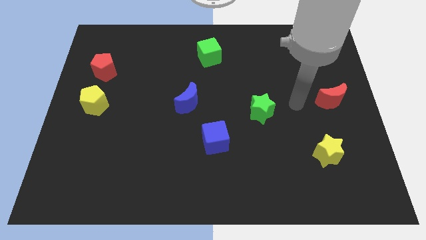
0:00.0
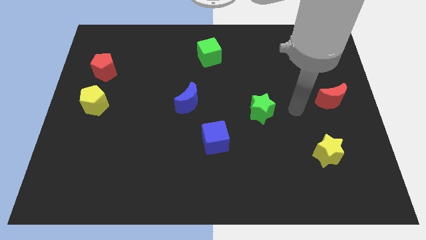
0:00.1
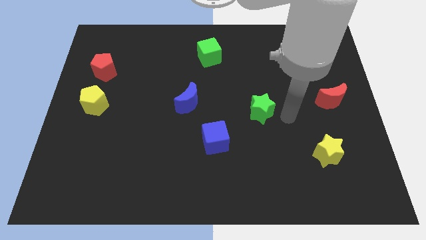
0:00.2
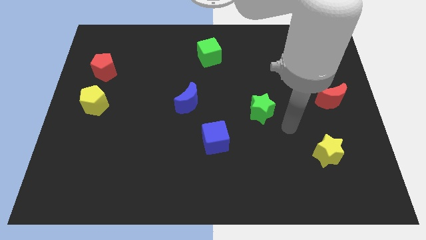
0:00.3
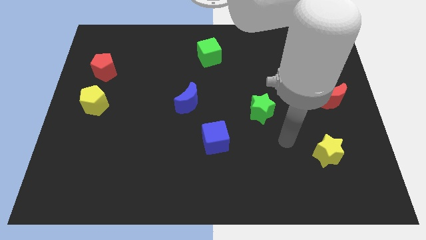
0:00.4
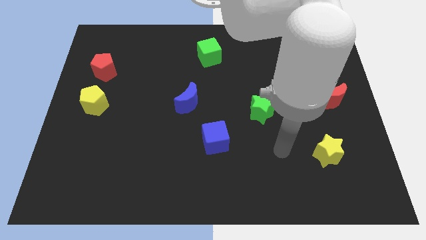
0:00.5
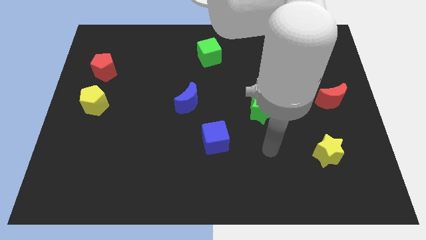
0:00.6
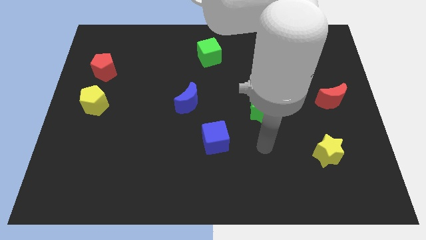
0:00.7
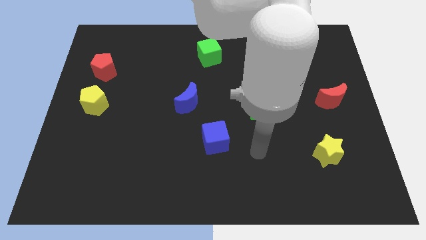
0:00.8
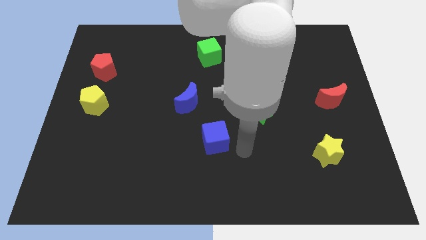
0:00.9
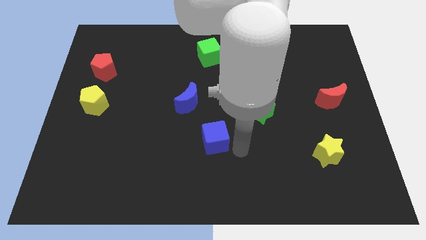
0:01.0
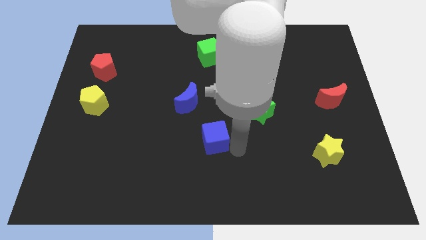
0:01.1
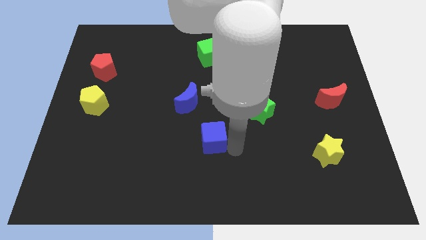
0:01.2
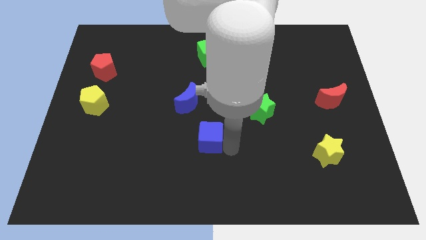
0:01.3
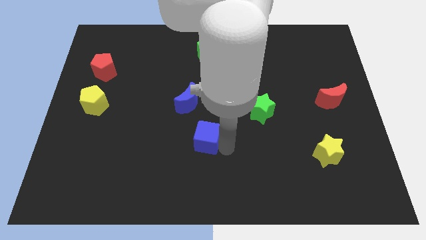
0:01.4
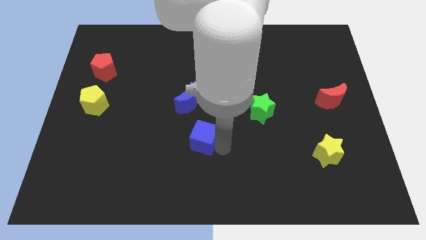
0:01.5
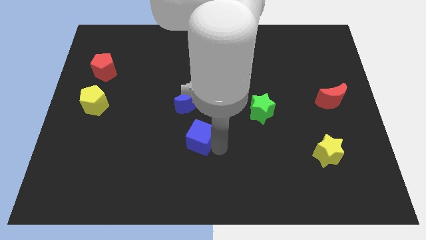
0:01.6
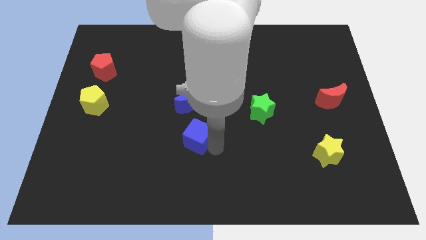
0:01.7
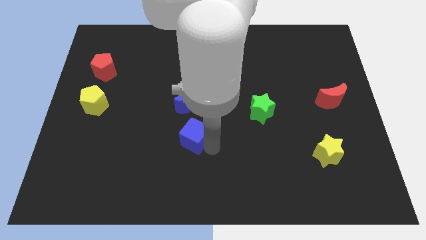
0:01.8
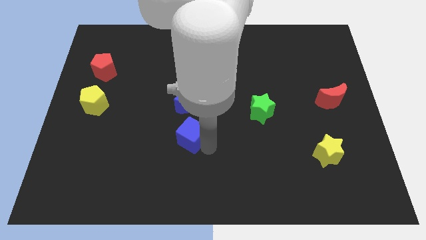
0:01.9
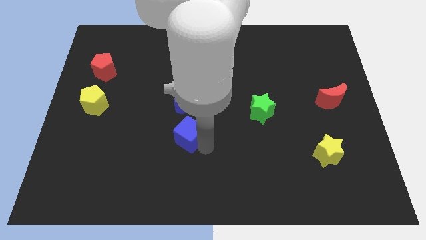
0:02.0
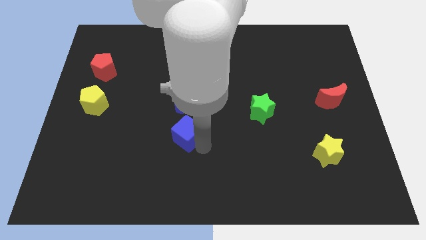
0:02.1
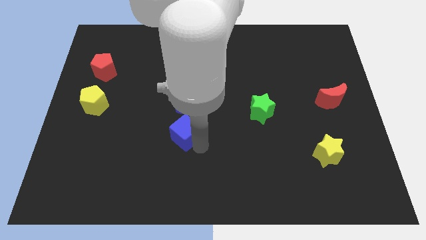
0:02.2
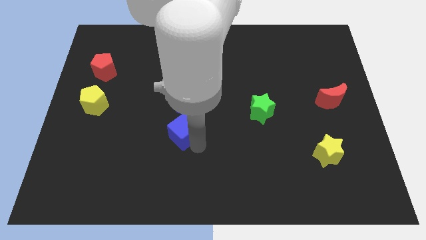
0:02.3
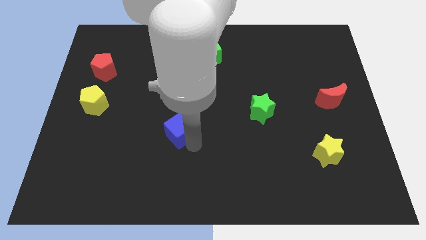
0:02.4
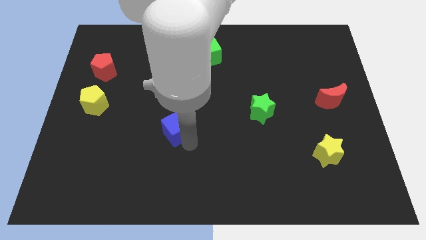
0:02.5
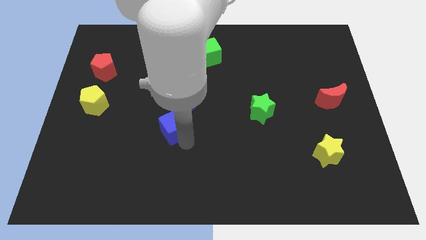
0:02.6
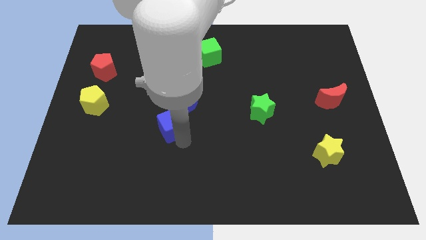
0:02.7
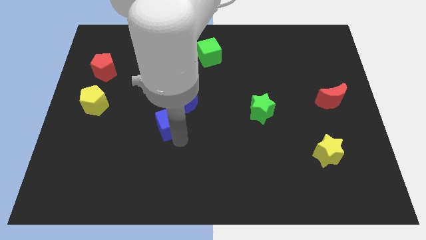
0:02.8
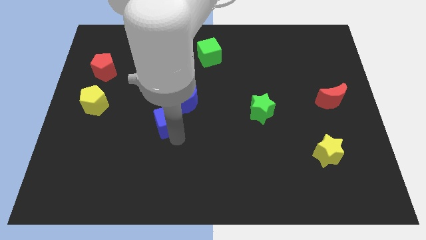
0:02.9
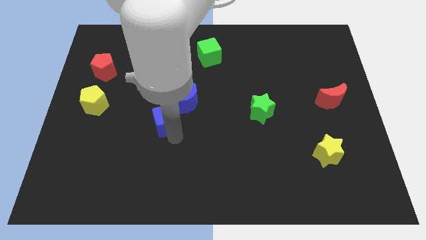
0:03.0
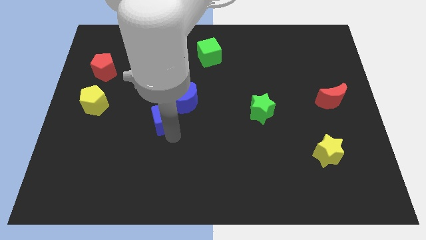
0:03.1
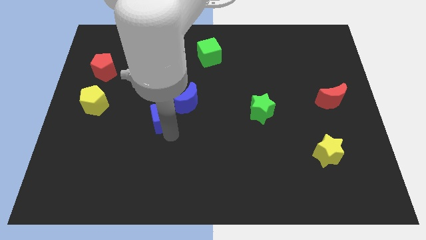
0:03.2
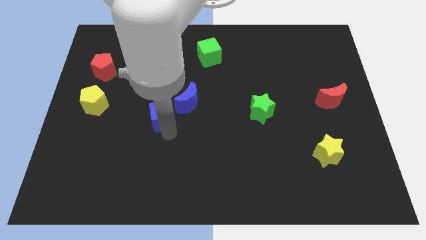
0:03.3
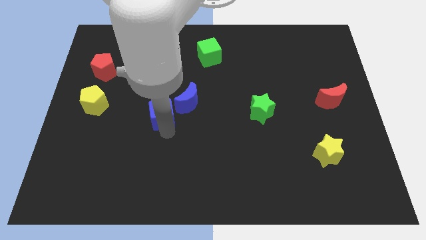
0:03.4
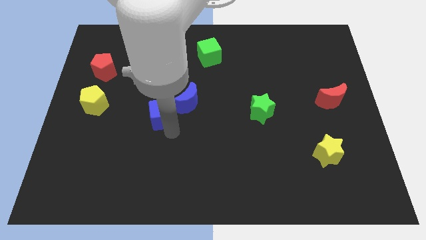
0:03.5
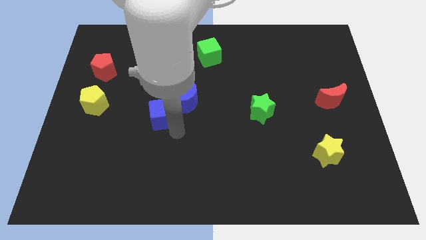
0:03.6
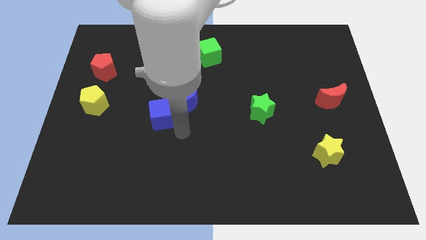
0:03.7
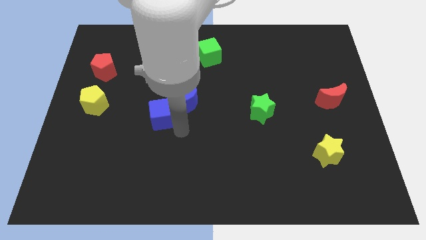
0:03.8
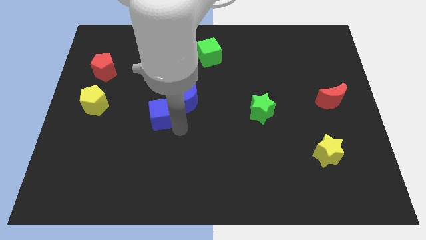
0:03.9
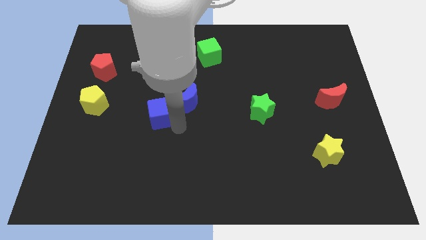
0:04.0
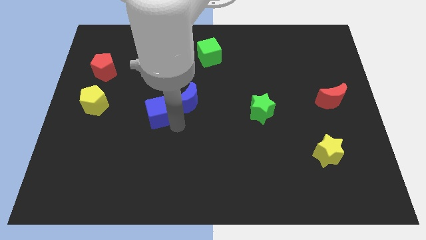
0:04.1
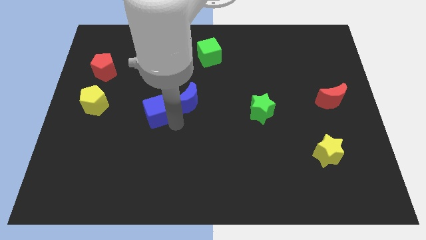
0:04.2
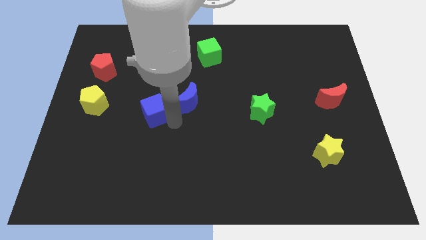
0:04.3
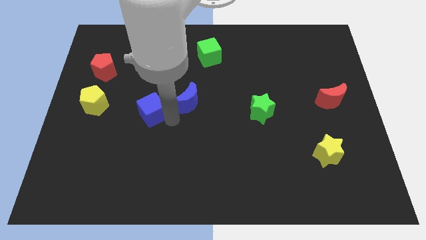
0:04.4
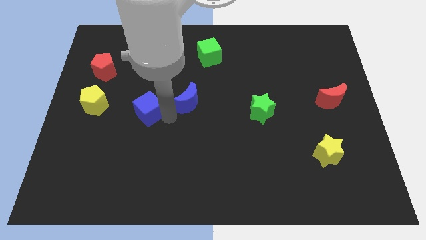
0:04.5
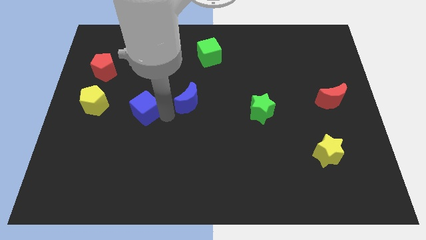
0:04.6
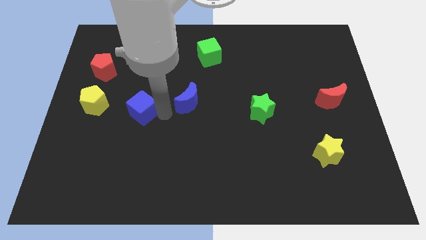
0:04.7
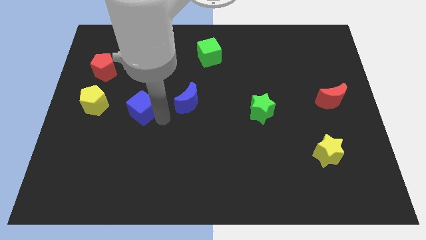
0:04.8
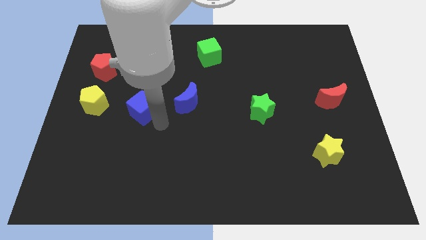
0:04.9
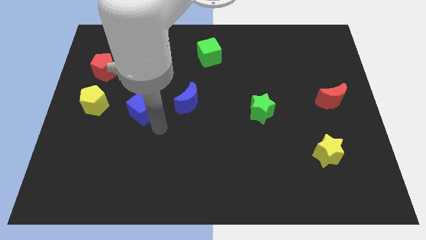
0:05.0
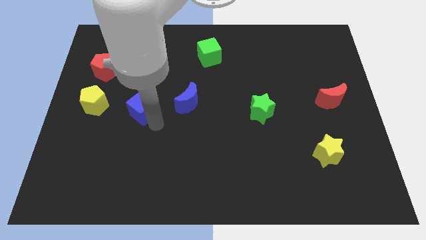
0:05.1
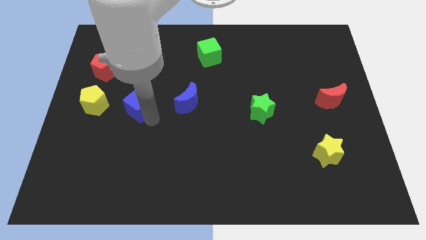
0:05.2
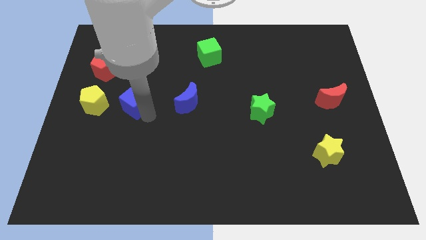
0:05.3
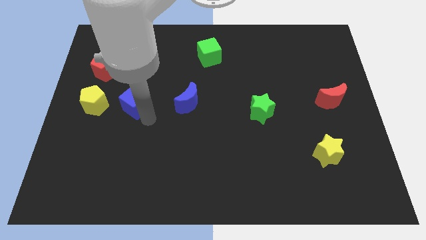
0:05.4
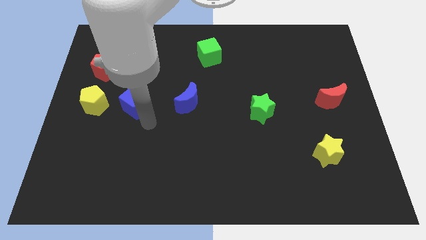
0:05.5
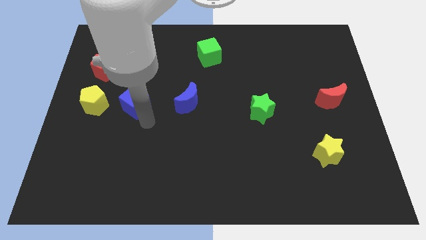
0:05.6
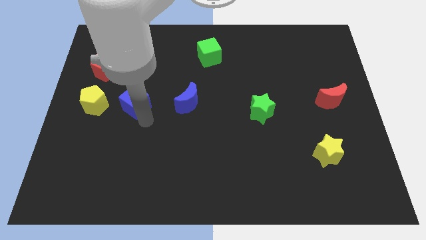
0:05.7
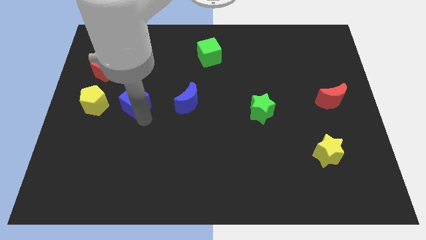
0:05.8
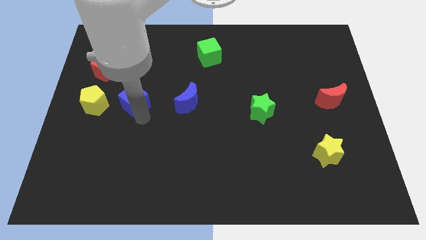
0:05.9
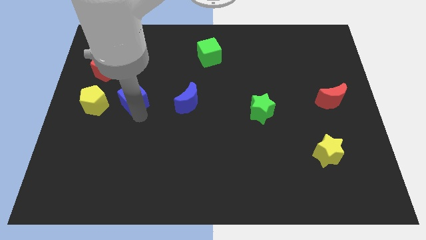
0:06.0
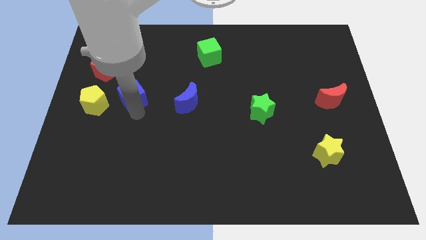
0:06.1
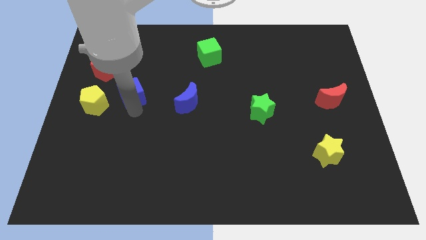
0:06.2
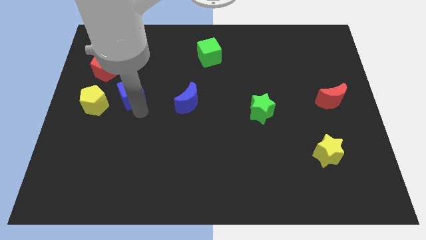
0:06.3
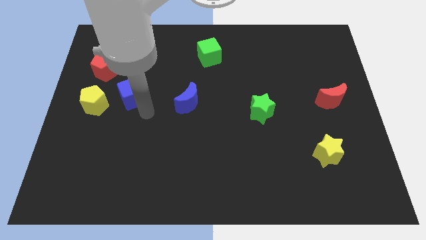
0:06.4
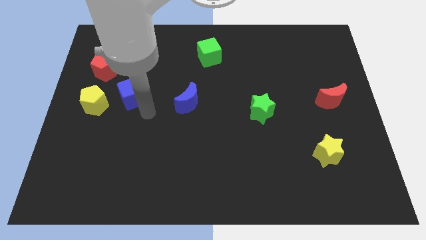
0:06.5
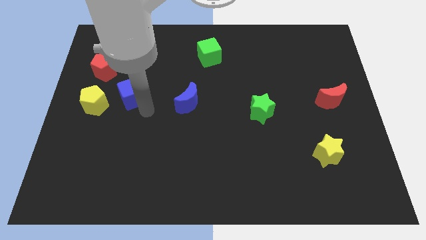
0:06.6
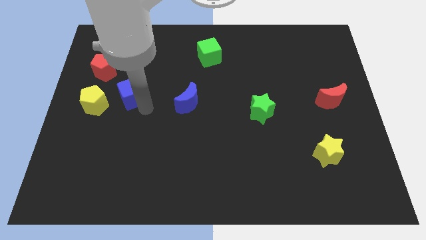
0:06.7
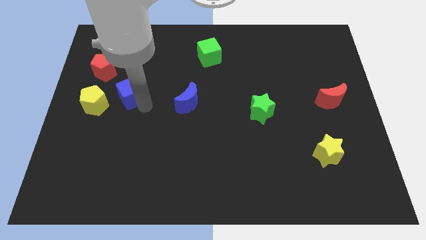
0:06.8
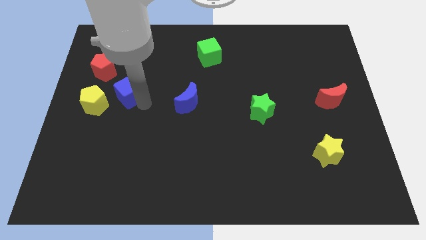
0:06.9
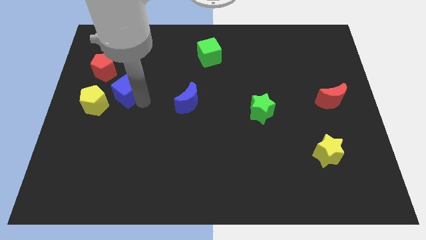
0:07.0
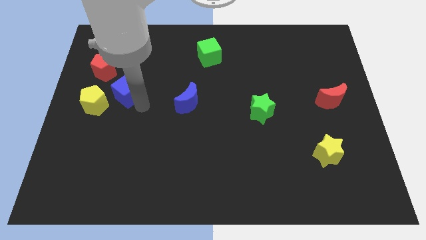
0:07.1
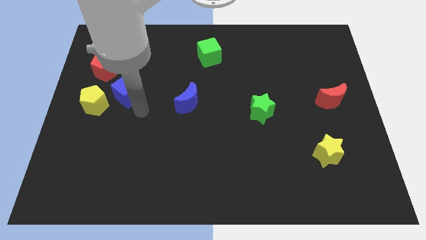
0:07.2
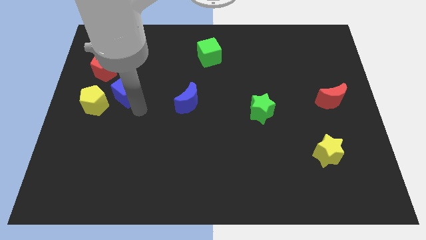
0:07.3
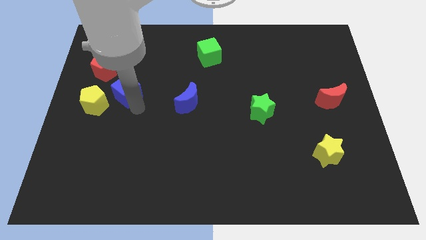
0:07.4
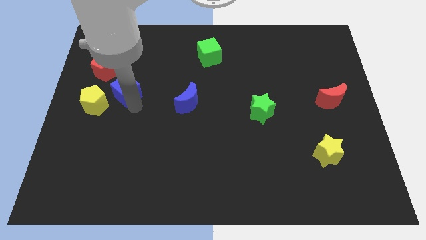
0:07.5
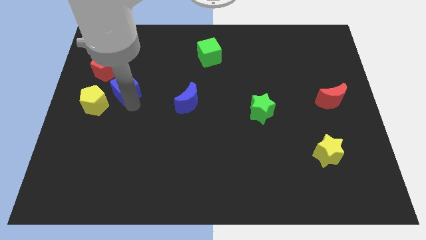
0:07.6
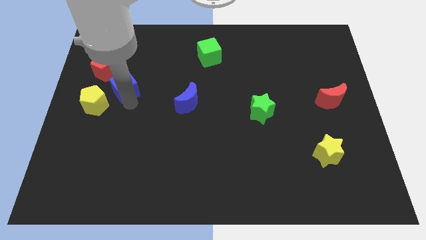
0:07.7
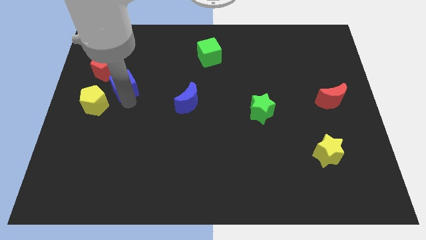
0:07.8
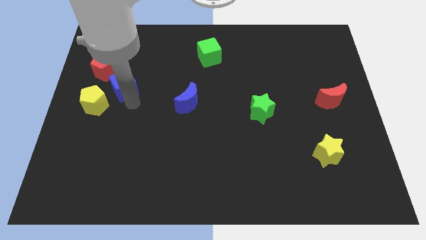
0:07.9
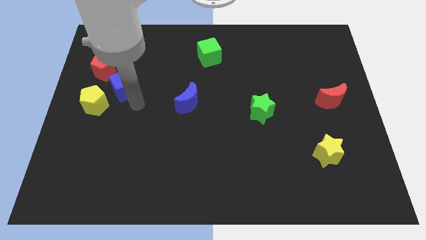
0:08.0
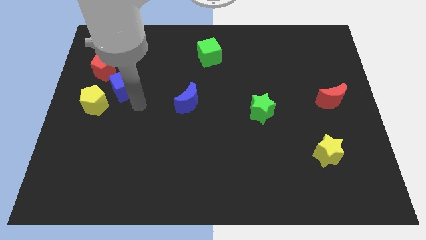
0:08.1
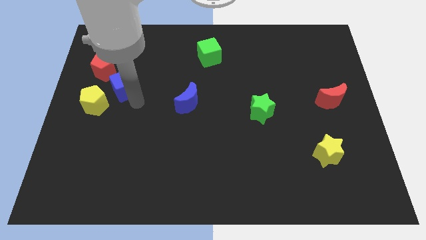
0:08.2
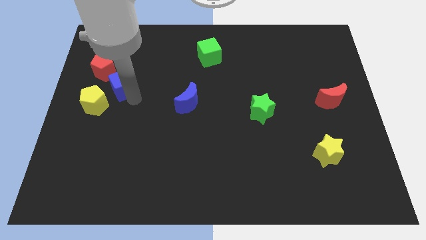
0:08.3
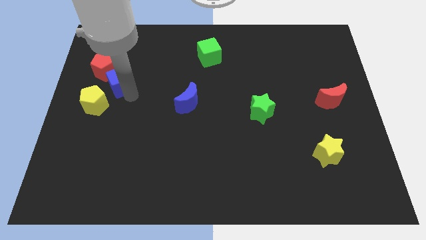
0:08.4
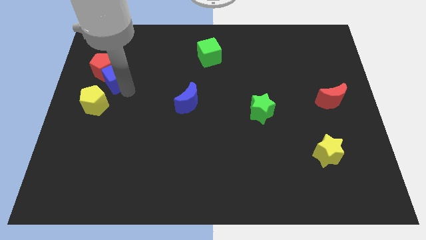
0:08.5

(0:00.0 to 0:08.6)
move the blue cube close to the red pentagon
